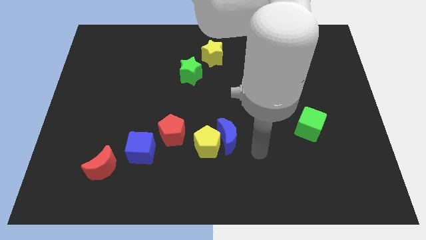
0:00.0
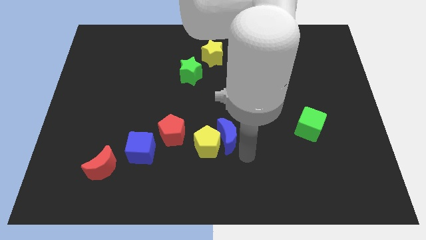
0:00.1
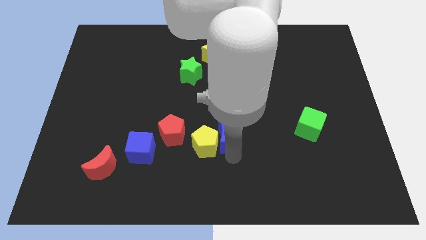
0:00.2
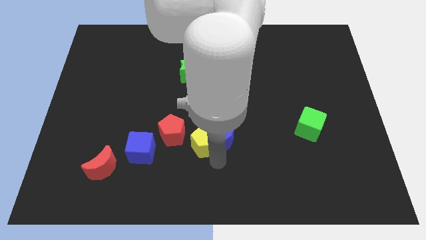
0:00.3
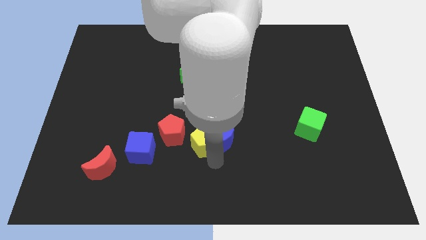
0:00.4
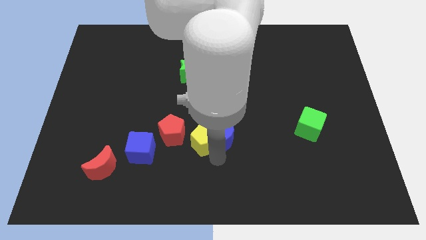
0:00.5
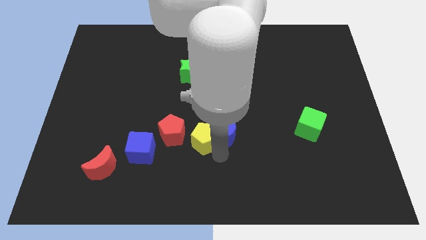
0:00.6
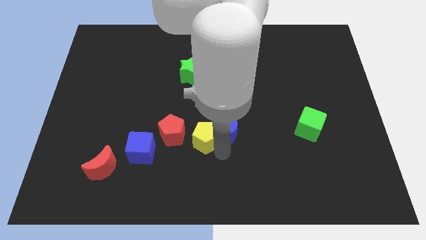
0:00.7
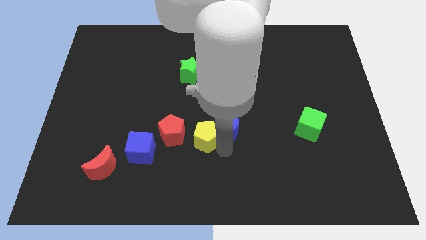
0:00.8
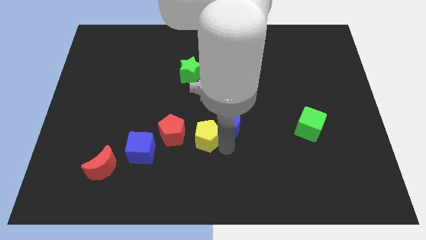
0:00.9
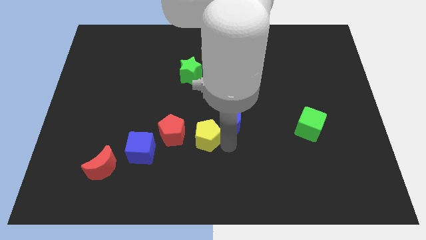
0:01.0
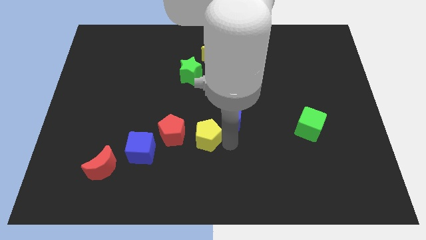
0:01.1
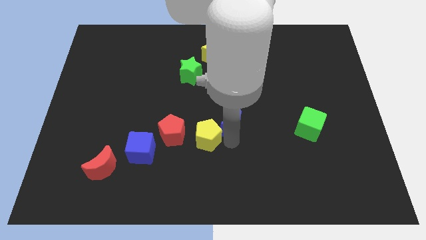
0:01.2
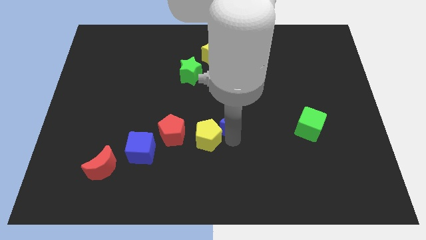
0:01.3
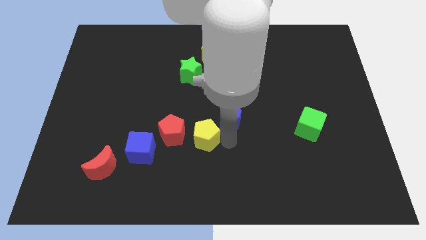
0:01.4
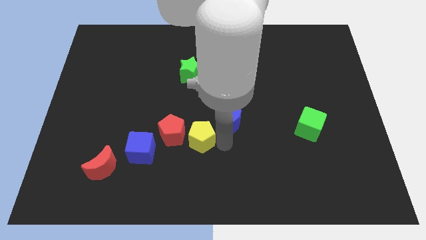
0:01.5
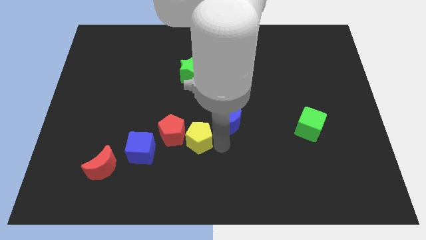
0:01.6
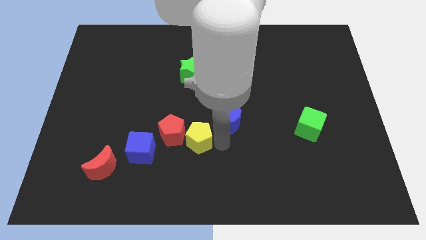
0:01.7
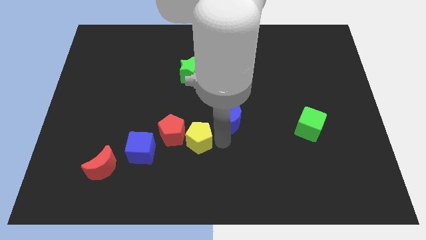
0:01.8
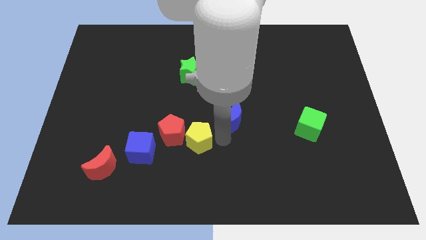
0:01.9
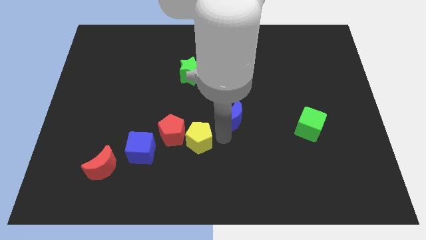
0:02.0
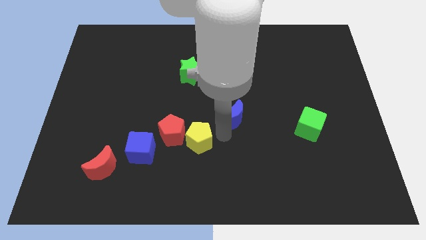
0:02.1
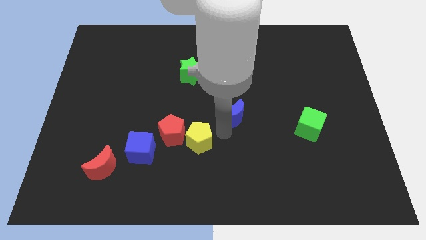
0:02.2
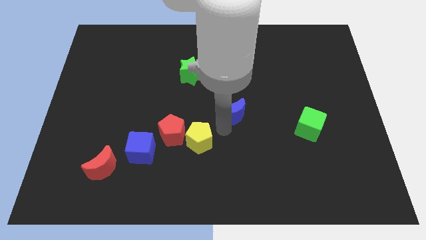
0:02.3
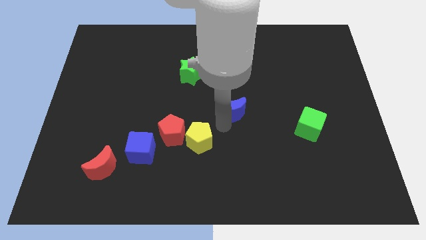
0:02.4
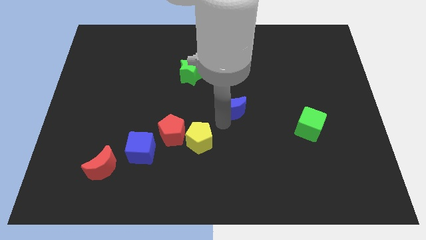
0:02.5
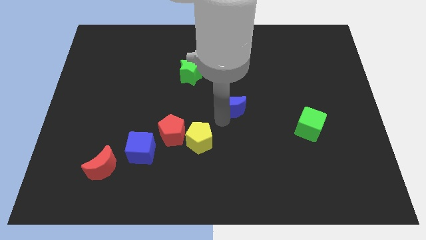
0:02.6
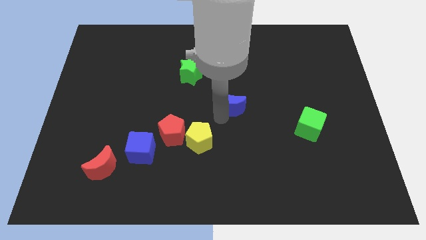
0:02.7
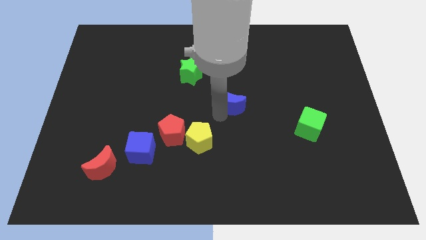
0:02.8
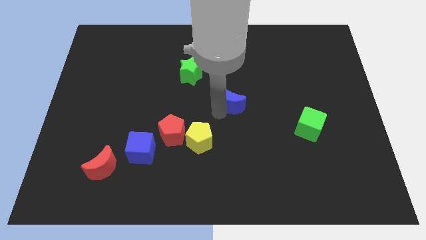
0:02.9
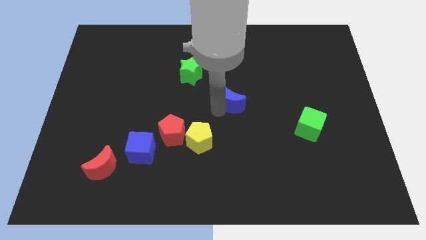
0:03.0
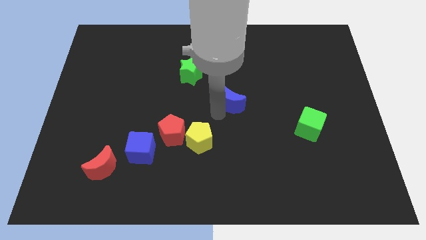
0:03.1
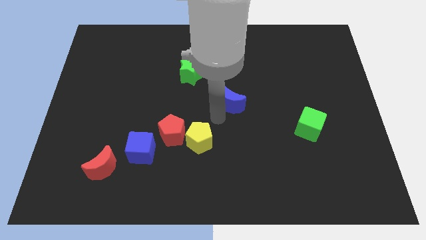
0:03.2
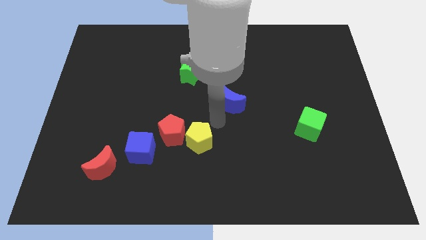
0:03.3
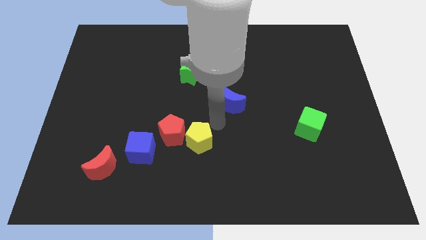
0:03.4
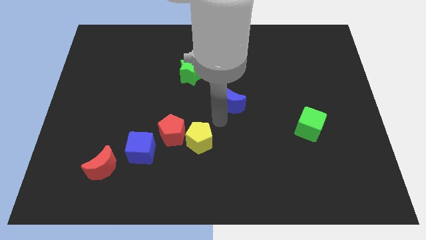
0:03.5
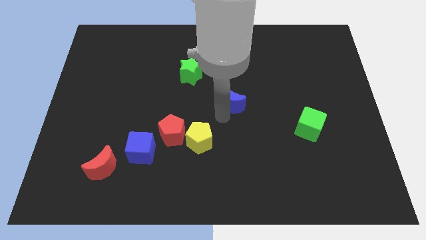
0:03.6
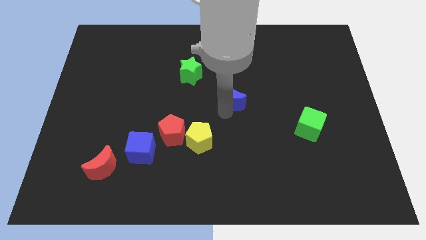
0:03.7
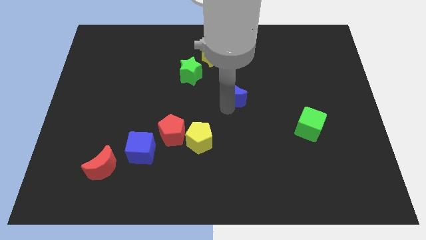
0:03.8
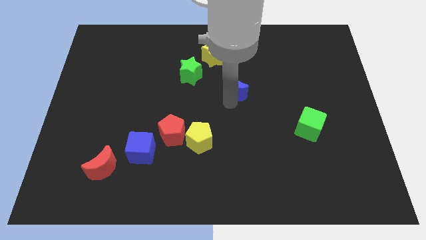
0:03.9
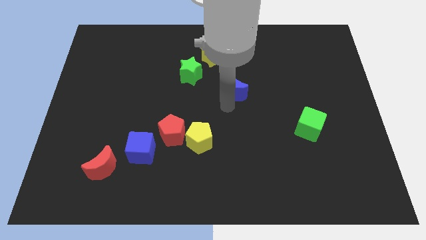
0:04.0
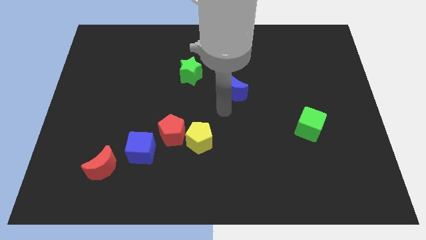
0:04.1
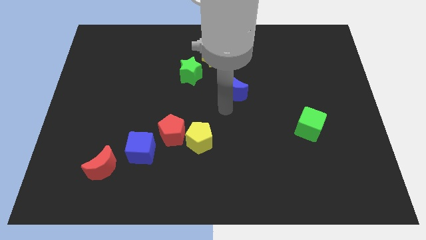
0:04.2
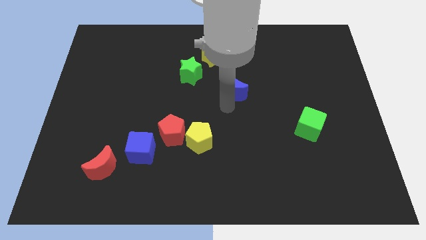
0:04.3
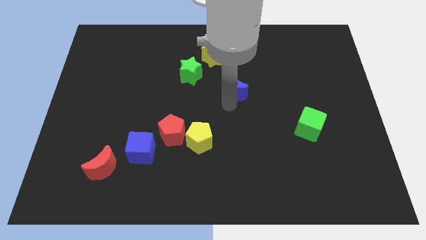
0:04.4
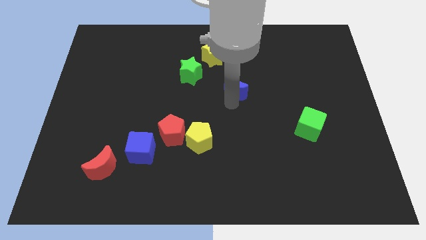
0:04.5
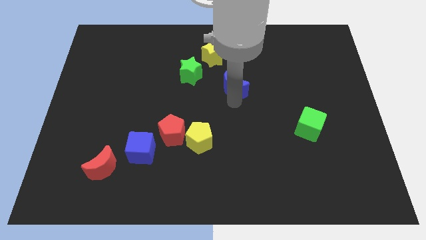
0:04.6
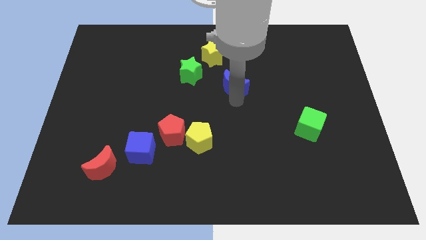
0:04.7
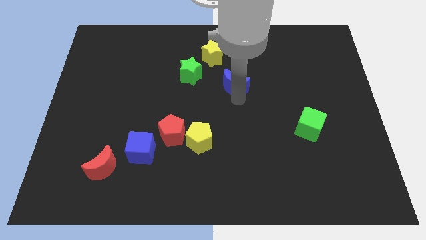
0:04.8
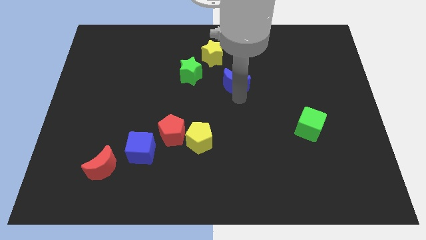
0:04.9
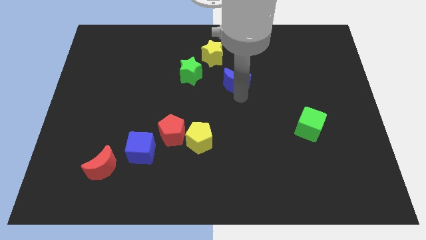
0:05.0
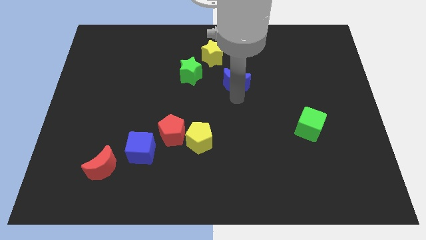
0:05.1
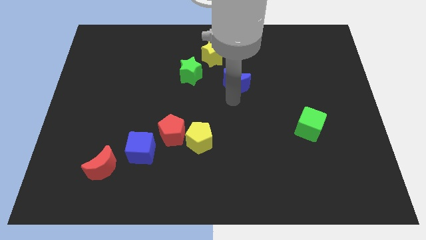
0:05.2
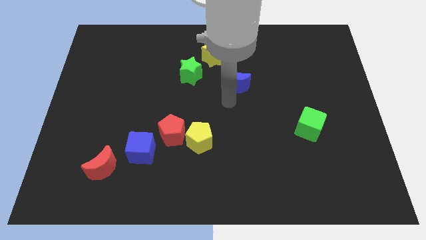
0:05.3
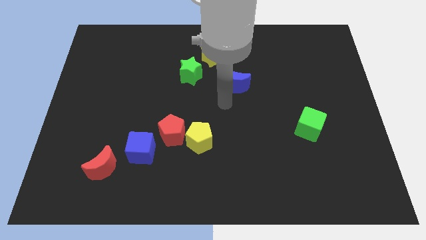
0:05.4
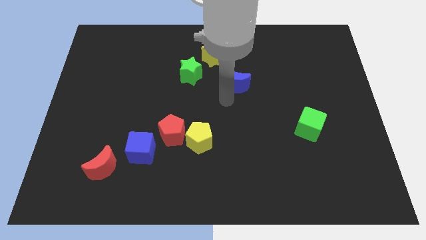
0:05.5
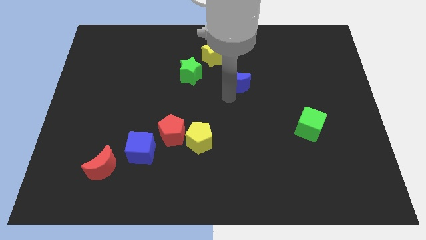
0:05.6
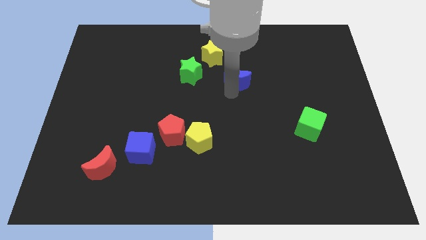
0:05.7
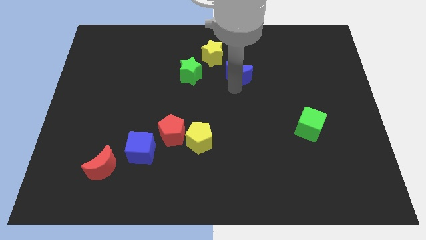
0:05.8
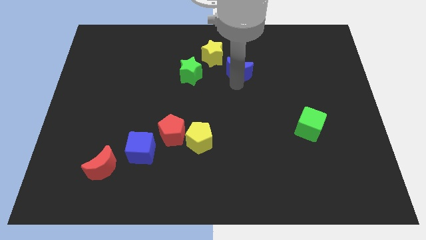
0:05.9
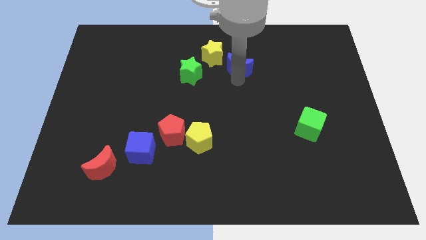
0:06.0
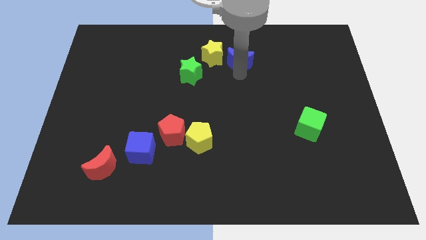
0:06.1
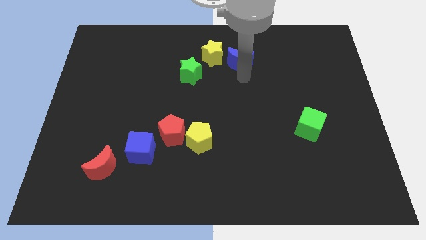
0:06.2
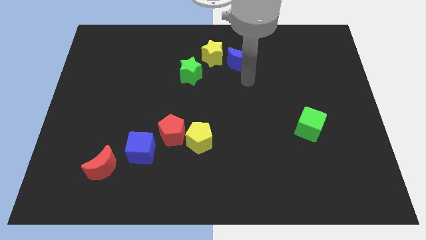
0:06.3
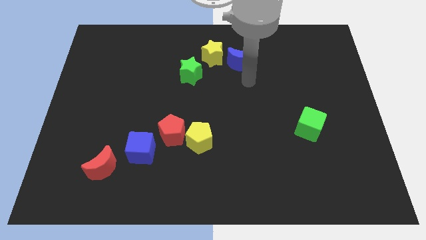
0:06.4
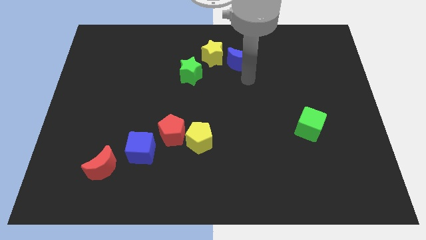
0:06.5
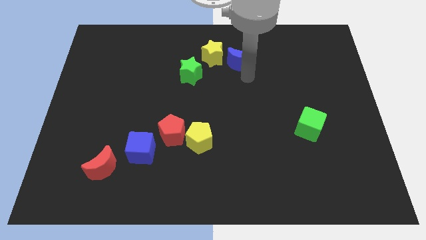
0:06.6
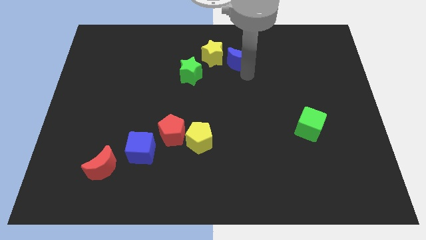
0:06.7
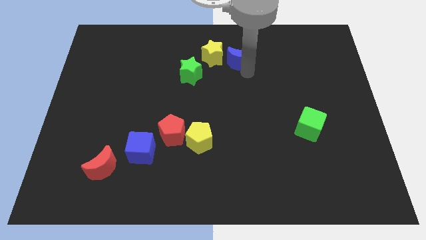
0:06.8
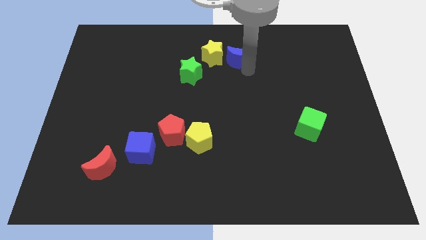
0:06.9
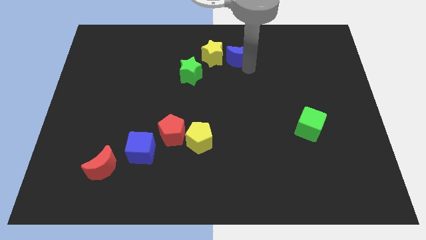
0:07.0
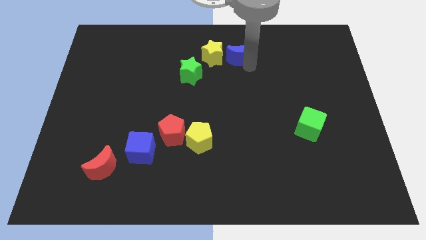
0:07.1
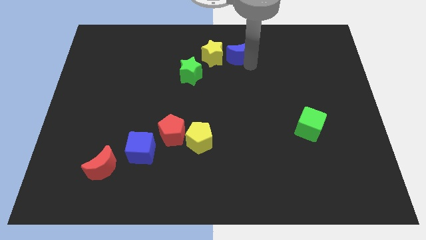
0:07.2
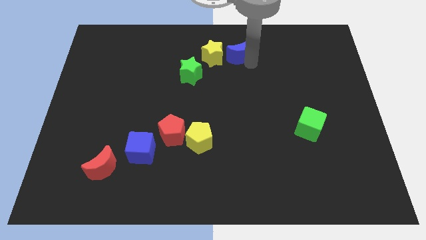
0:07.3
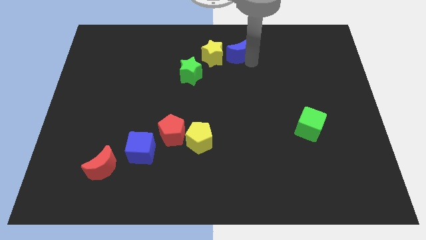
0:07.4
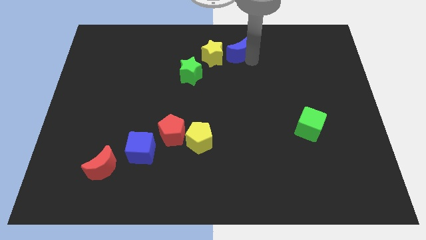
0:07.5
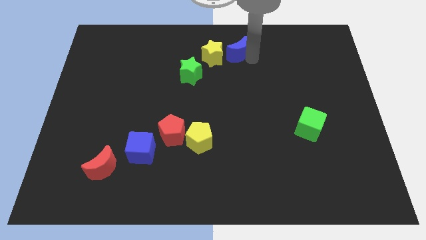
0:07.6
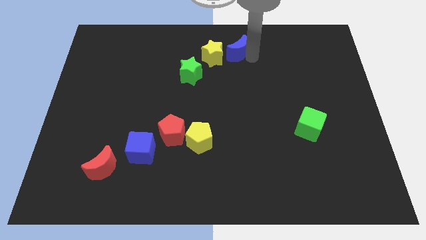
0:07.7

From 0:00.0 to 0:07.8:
put the blue moon to the towards your base
